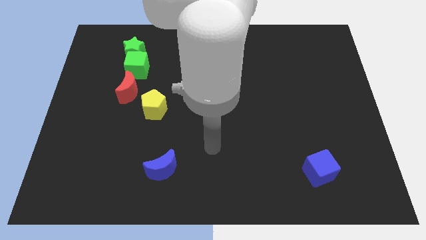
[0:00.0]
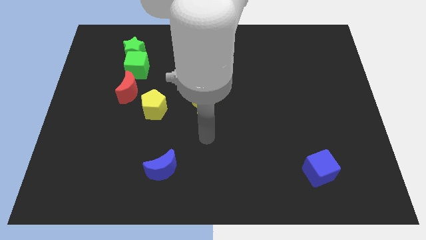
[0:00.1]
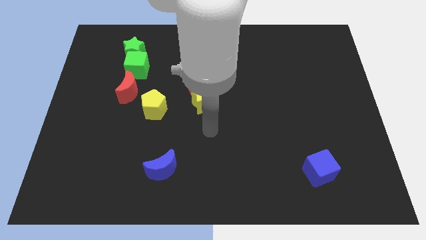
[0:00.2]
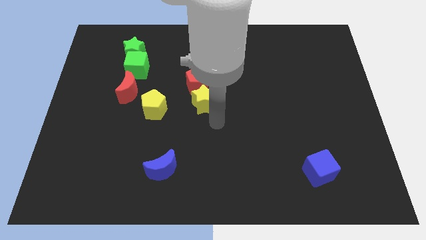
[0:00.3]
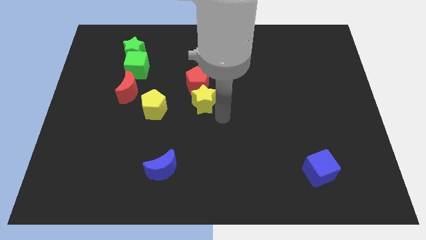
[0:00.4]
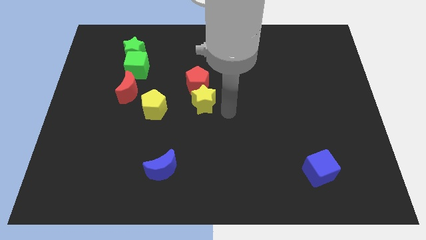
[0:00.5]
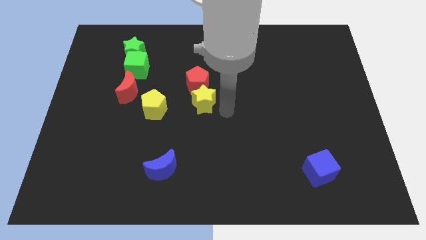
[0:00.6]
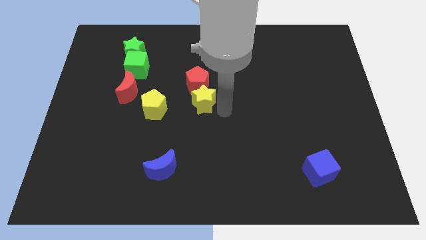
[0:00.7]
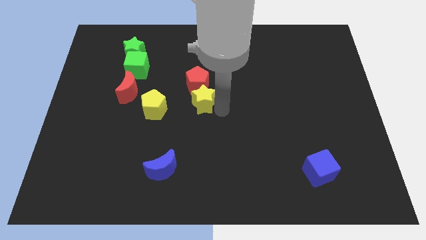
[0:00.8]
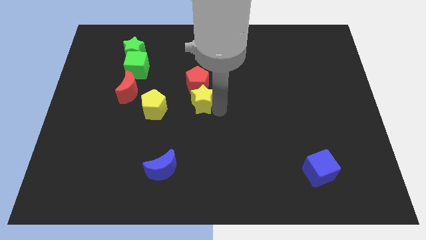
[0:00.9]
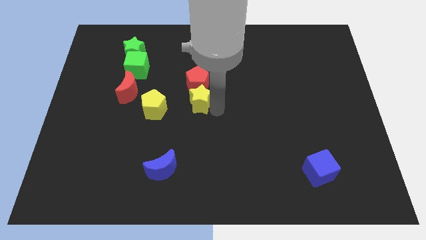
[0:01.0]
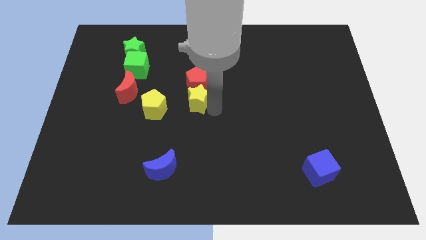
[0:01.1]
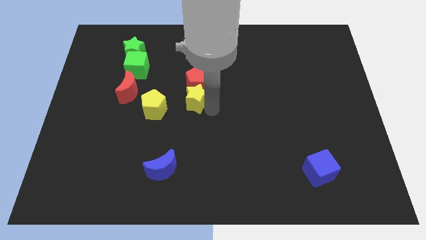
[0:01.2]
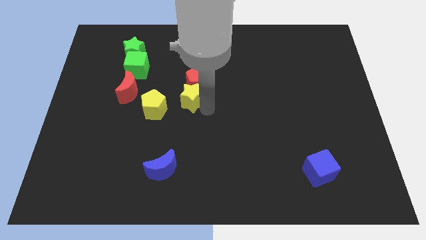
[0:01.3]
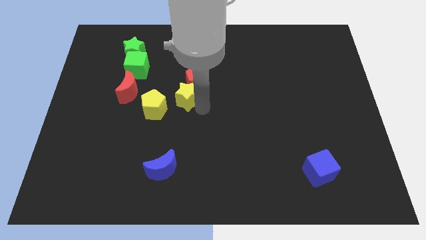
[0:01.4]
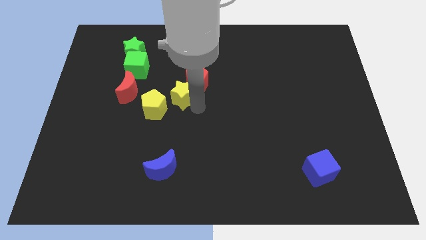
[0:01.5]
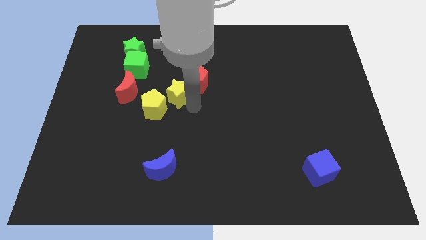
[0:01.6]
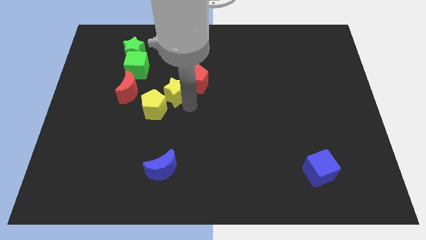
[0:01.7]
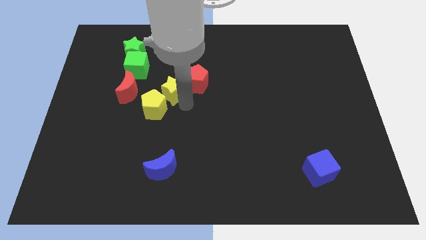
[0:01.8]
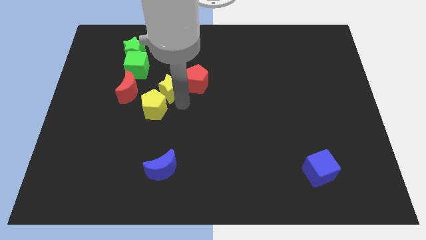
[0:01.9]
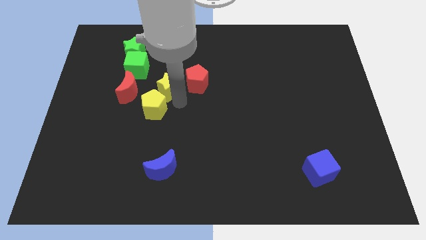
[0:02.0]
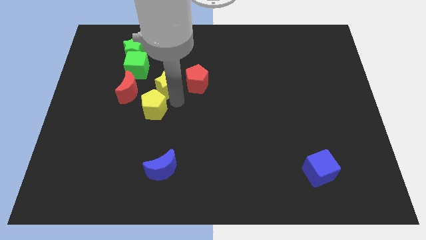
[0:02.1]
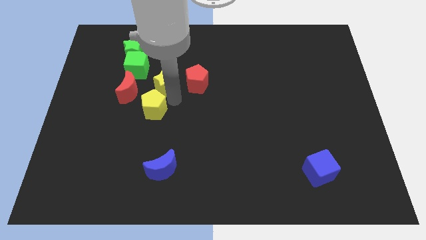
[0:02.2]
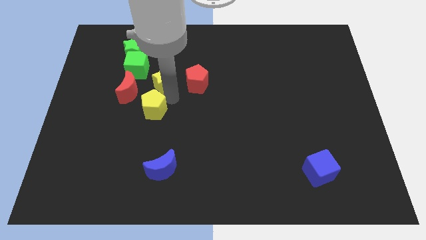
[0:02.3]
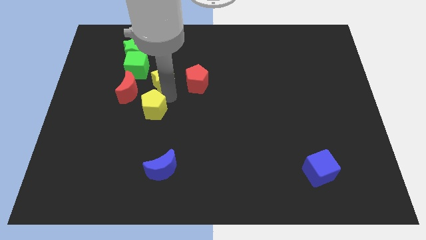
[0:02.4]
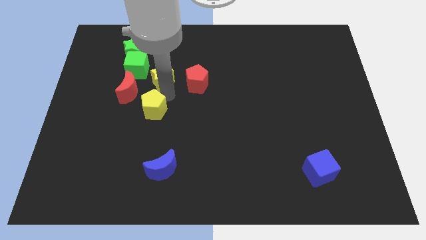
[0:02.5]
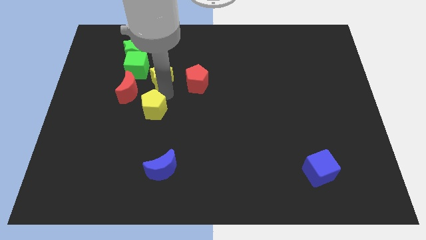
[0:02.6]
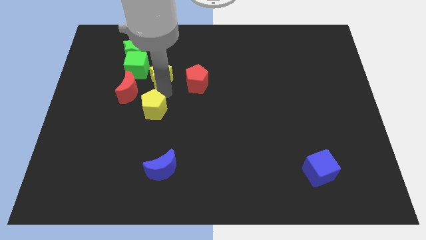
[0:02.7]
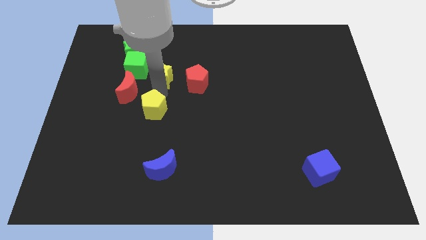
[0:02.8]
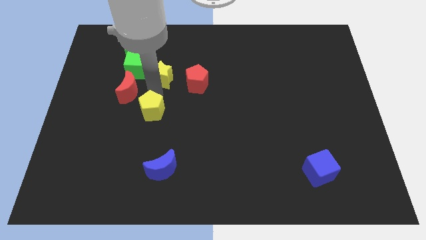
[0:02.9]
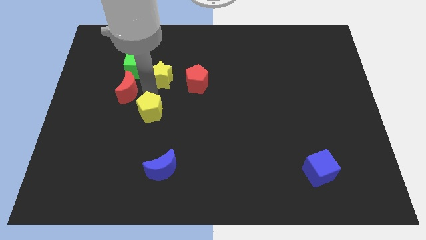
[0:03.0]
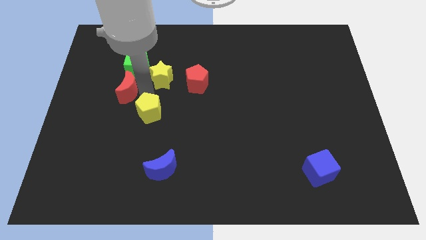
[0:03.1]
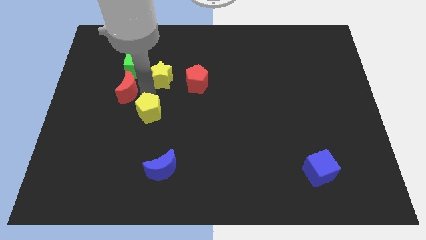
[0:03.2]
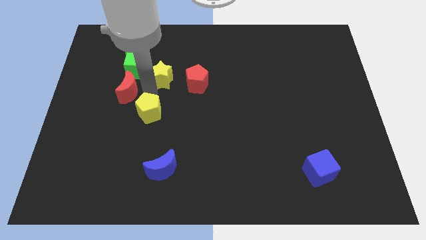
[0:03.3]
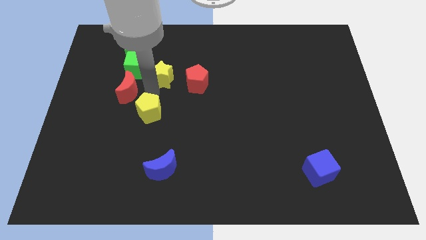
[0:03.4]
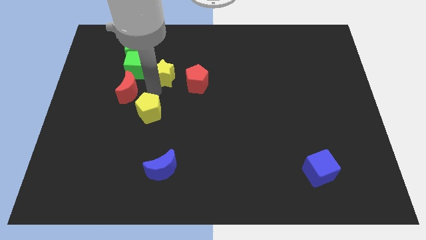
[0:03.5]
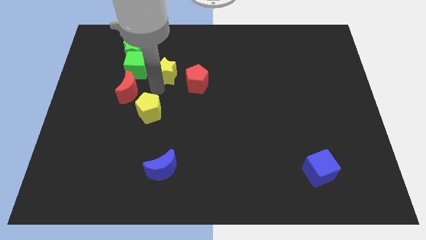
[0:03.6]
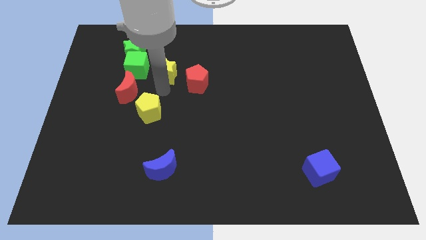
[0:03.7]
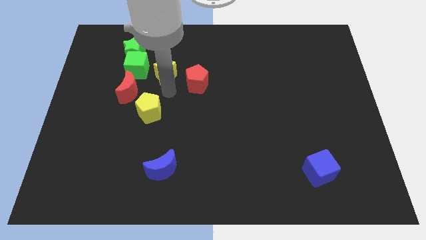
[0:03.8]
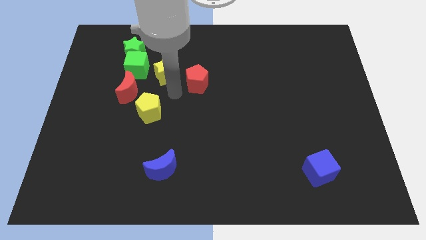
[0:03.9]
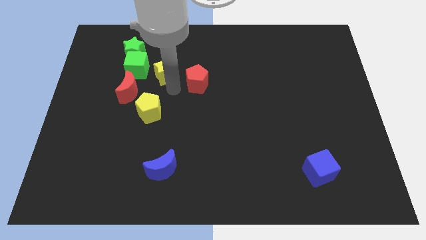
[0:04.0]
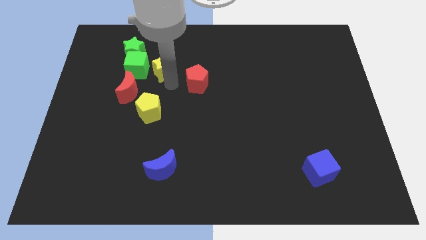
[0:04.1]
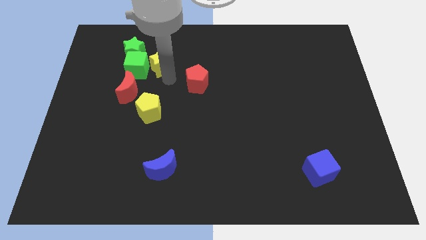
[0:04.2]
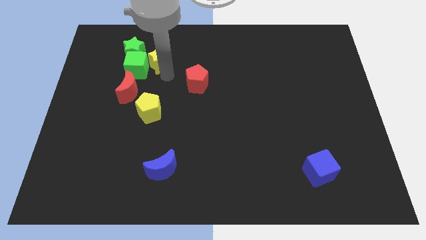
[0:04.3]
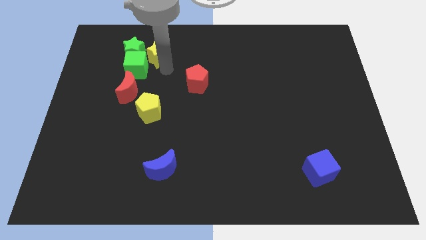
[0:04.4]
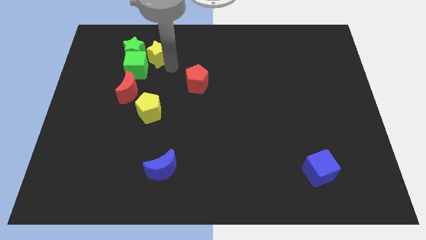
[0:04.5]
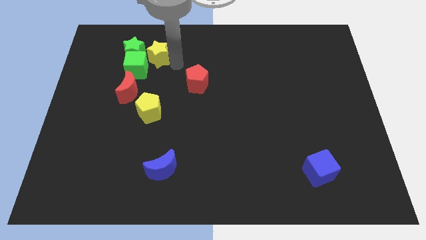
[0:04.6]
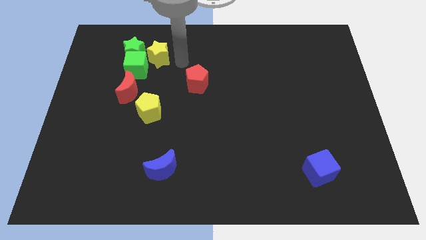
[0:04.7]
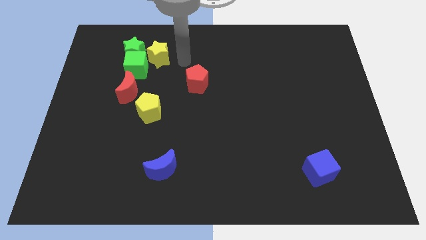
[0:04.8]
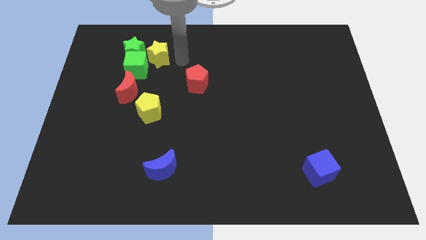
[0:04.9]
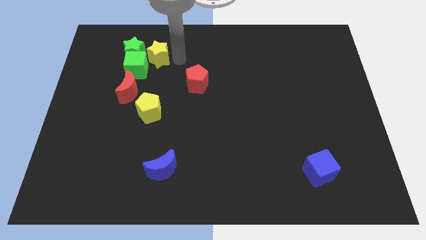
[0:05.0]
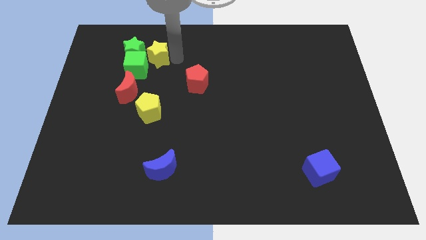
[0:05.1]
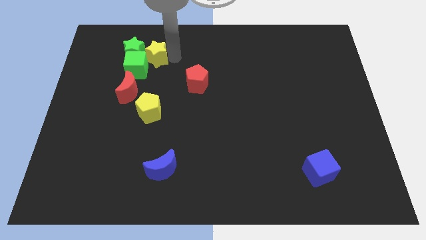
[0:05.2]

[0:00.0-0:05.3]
put the yellow star towards the green star

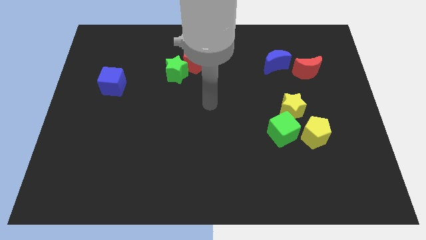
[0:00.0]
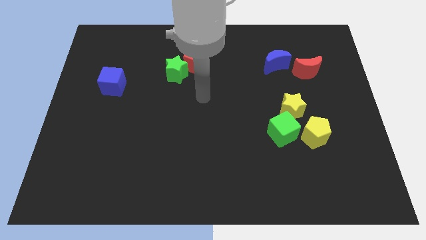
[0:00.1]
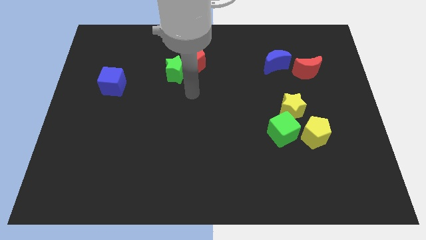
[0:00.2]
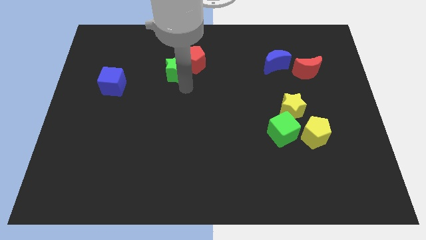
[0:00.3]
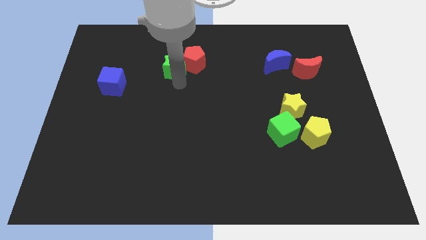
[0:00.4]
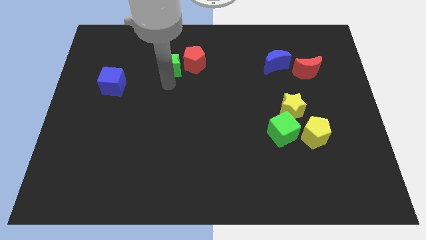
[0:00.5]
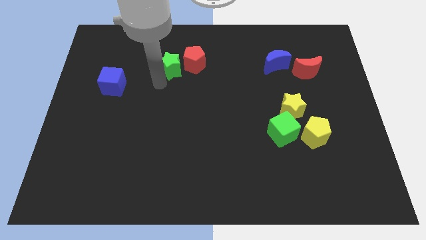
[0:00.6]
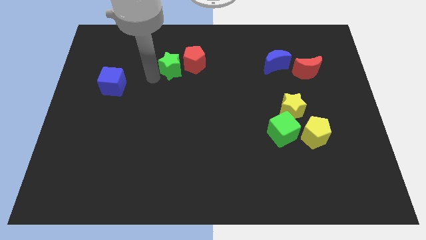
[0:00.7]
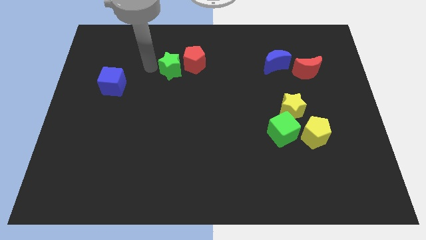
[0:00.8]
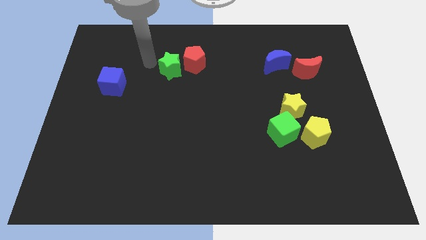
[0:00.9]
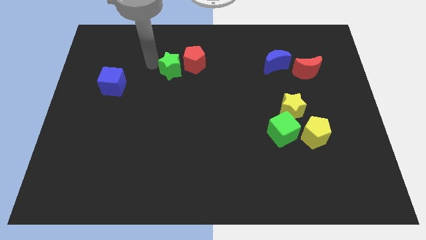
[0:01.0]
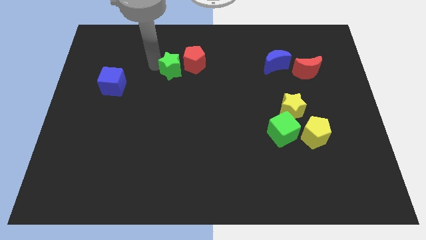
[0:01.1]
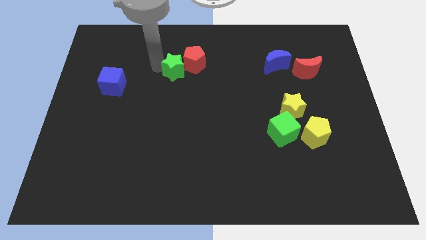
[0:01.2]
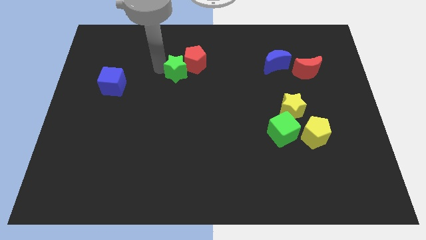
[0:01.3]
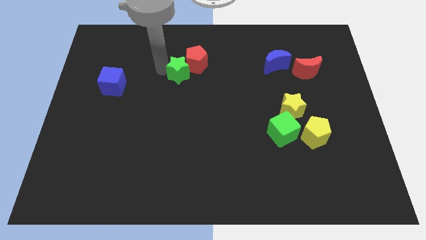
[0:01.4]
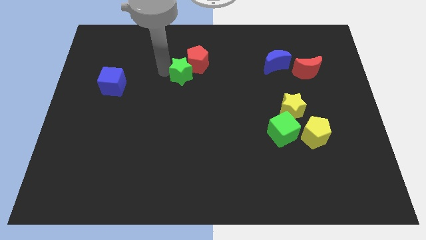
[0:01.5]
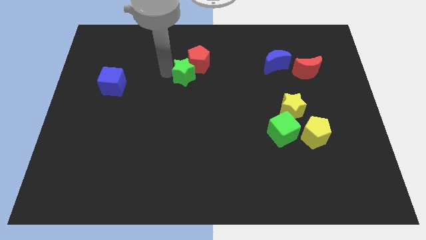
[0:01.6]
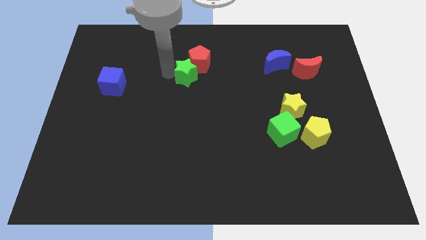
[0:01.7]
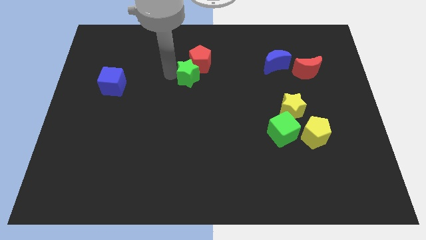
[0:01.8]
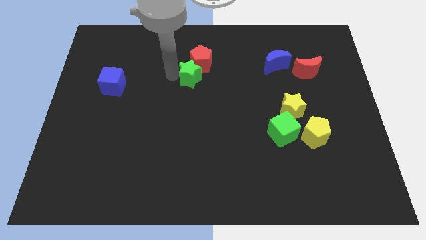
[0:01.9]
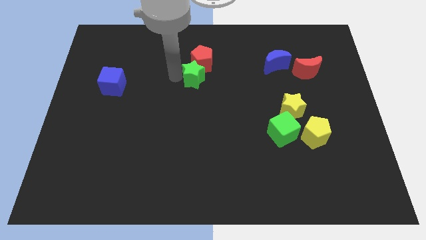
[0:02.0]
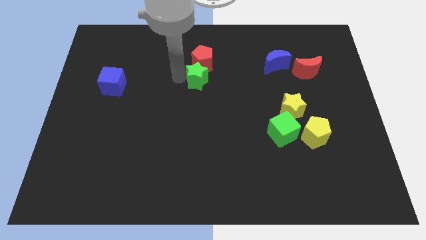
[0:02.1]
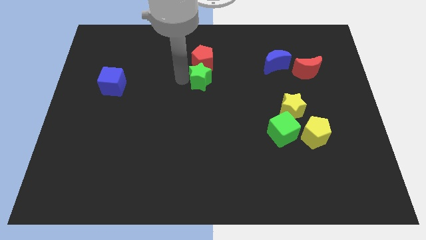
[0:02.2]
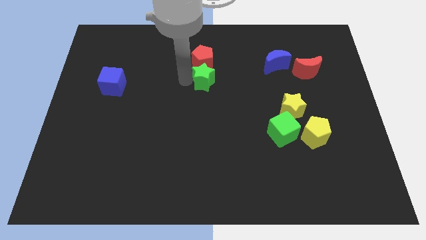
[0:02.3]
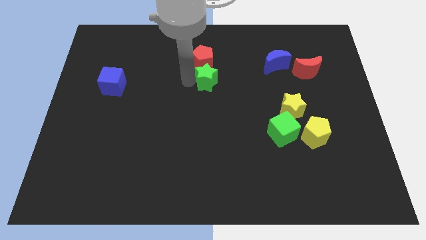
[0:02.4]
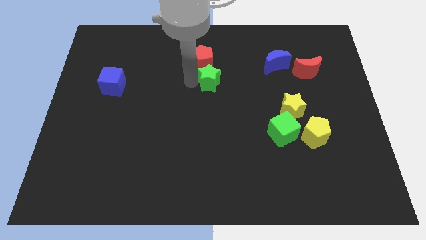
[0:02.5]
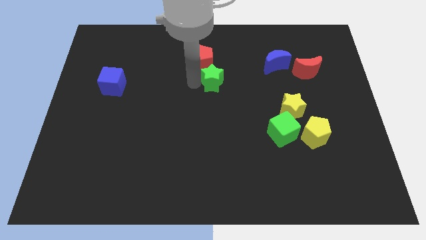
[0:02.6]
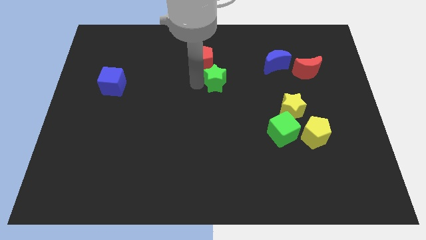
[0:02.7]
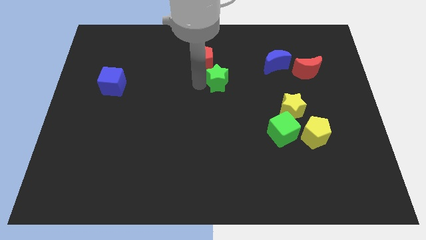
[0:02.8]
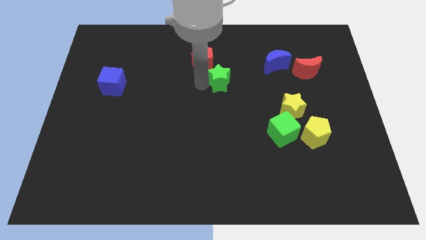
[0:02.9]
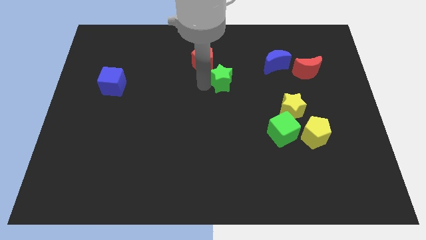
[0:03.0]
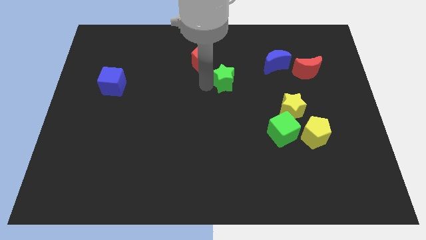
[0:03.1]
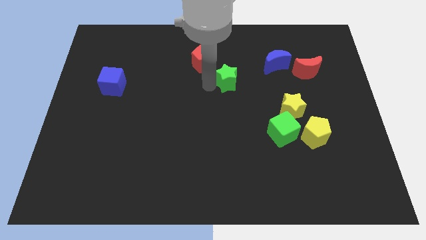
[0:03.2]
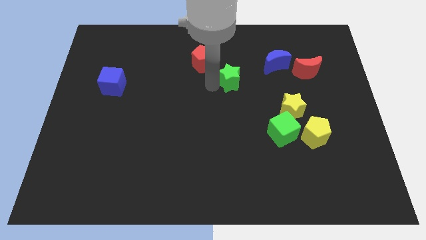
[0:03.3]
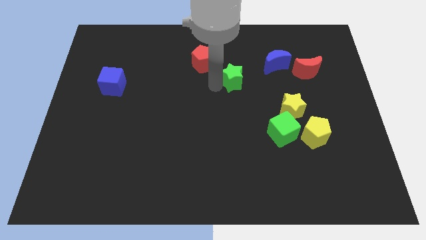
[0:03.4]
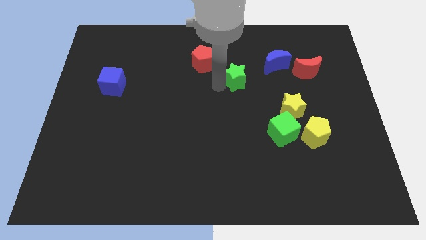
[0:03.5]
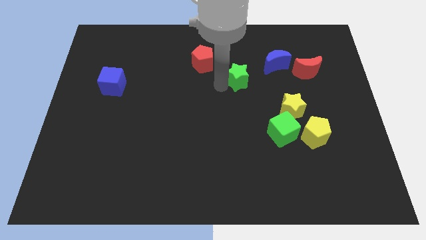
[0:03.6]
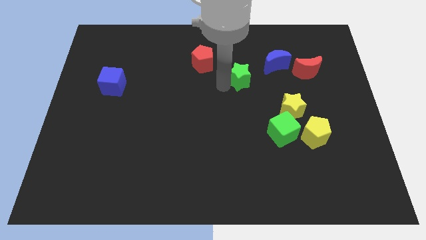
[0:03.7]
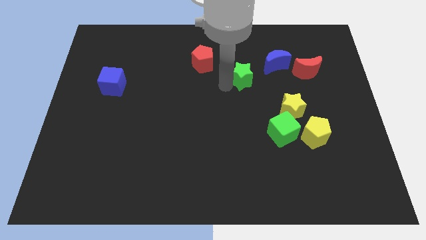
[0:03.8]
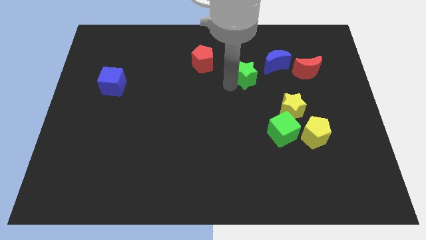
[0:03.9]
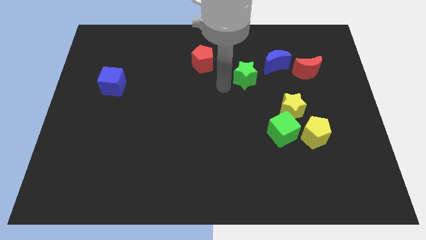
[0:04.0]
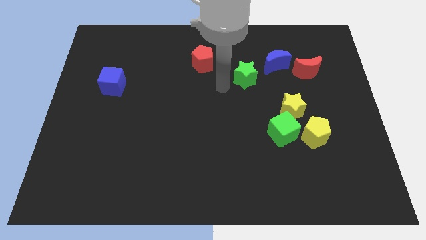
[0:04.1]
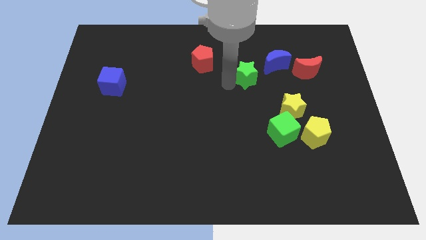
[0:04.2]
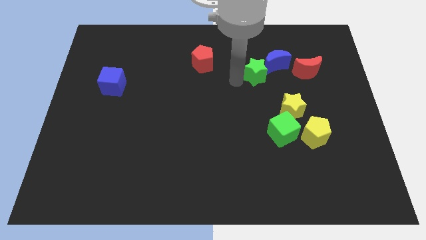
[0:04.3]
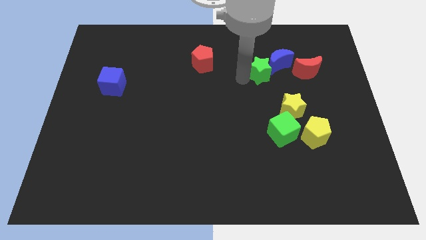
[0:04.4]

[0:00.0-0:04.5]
move the green star to the blue moon
